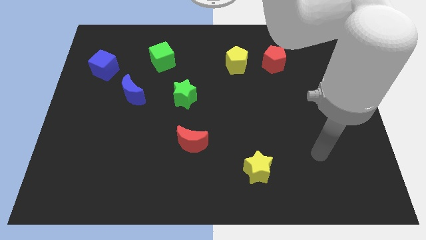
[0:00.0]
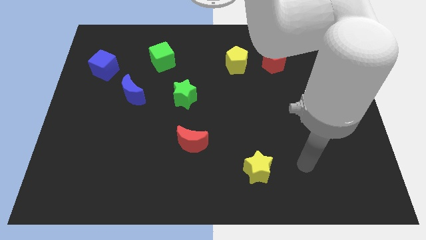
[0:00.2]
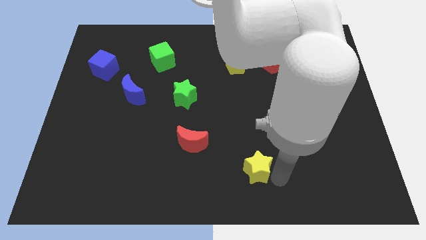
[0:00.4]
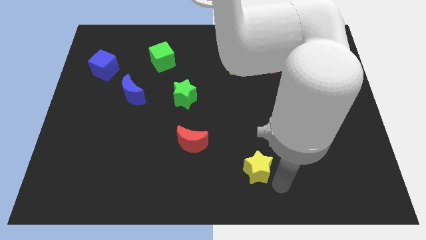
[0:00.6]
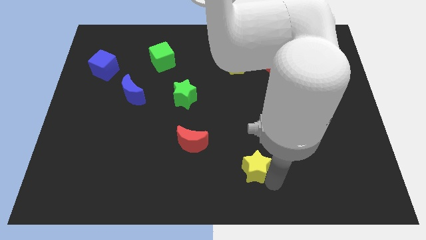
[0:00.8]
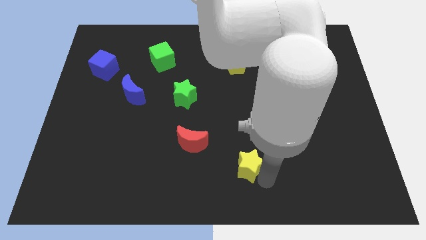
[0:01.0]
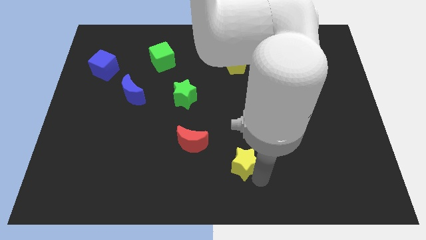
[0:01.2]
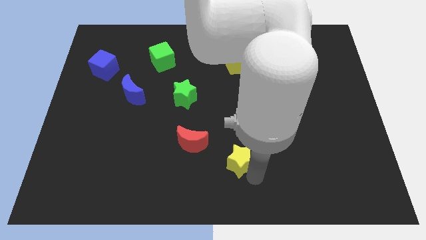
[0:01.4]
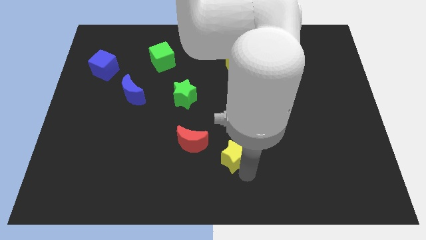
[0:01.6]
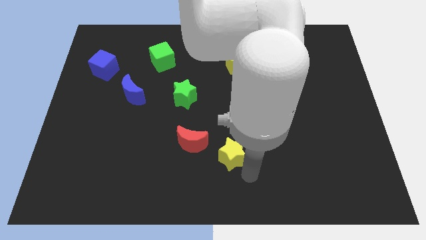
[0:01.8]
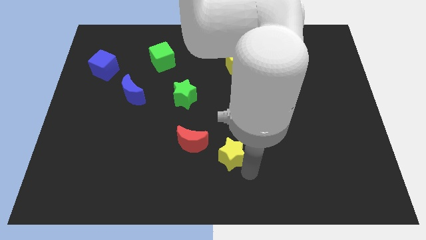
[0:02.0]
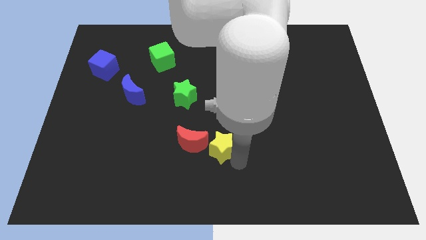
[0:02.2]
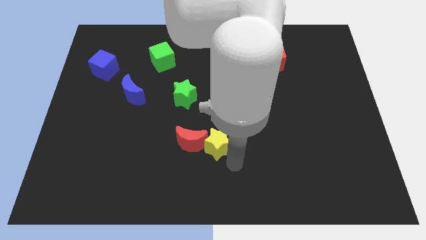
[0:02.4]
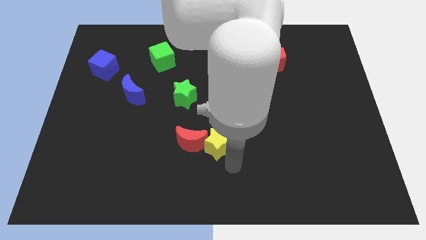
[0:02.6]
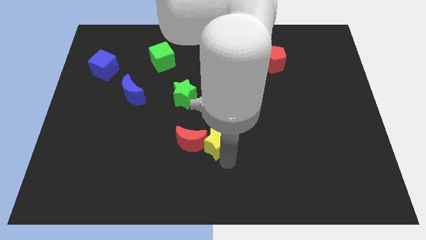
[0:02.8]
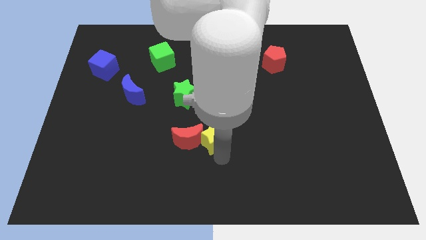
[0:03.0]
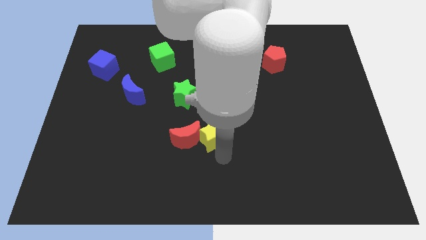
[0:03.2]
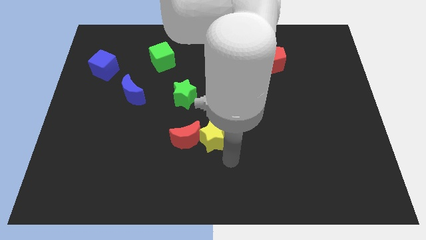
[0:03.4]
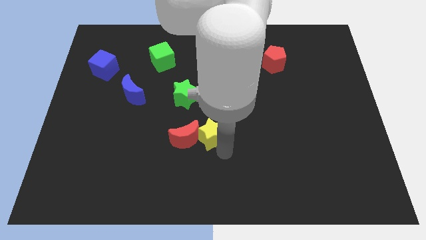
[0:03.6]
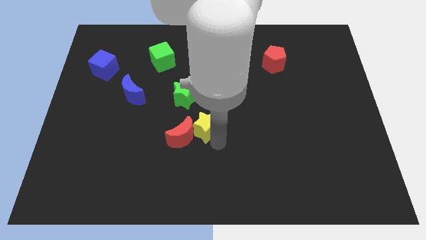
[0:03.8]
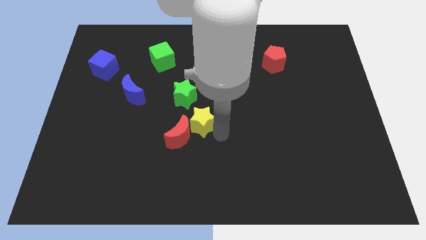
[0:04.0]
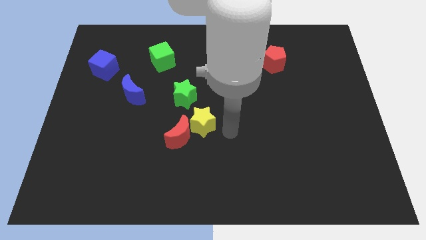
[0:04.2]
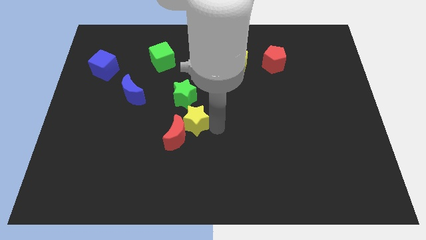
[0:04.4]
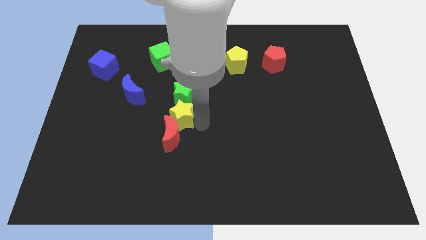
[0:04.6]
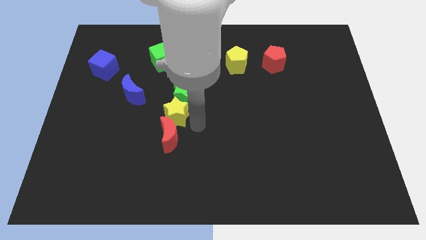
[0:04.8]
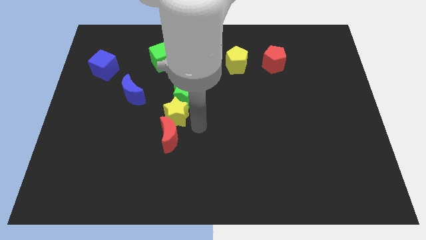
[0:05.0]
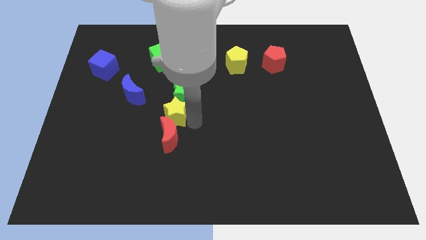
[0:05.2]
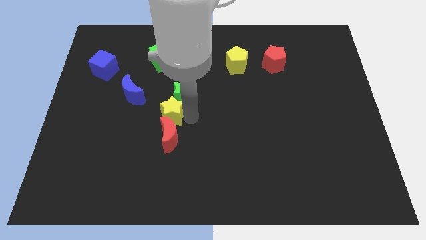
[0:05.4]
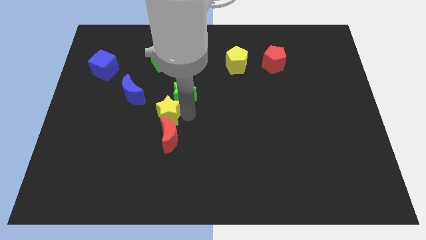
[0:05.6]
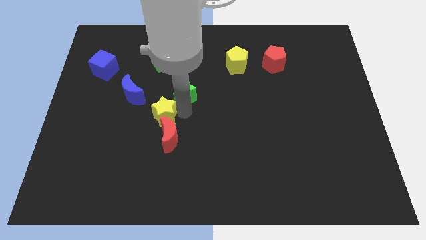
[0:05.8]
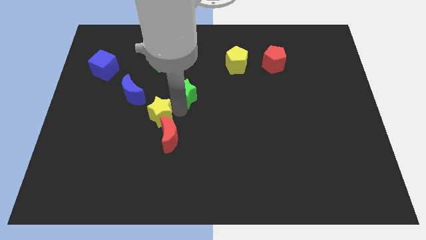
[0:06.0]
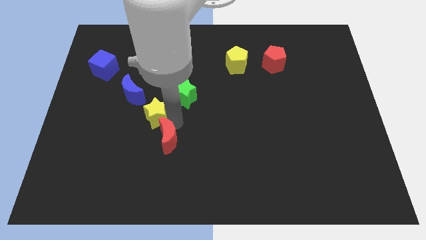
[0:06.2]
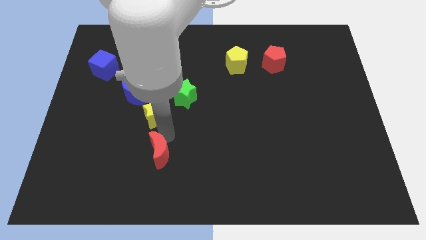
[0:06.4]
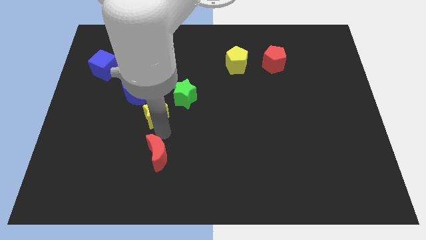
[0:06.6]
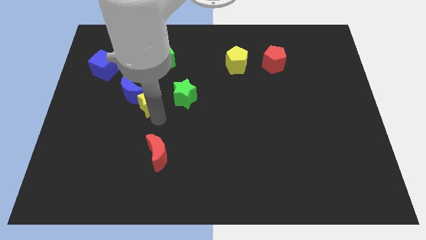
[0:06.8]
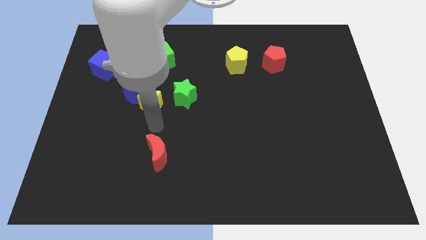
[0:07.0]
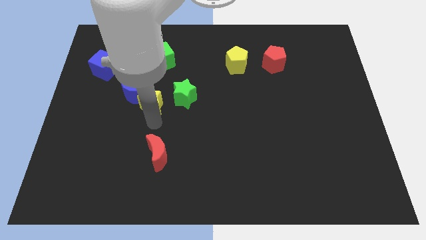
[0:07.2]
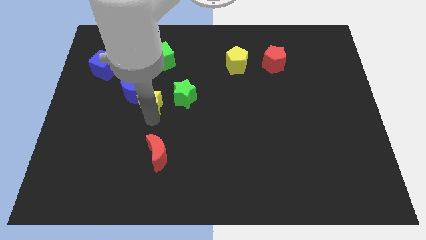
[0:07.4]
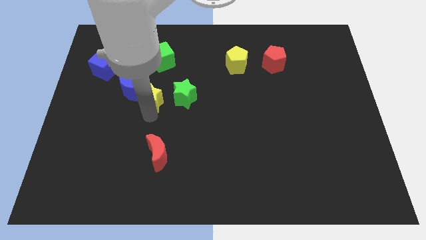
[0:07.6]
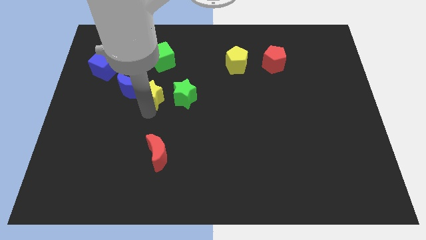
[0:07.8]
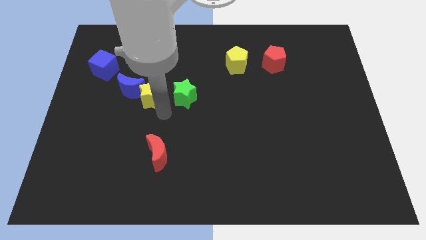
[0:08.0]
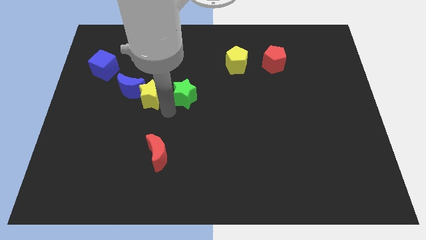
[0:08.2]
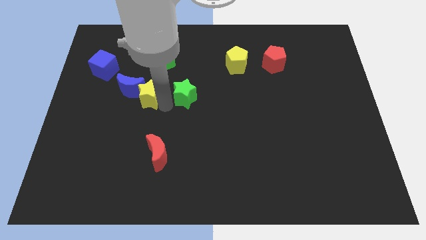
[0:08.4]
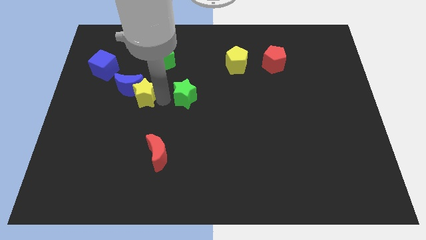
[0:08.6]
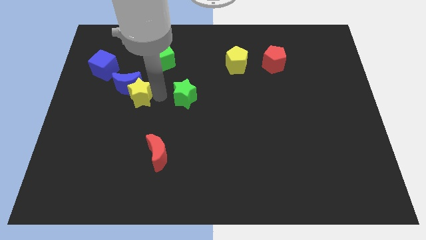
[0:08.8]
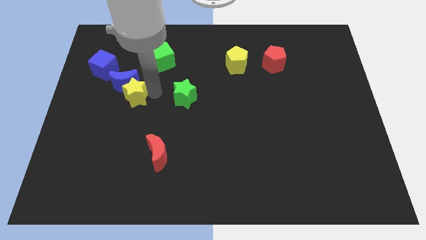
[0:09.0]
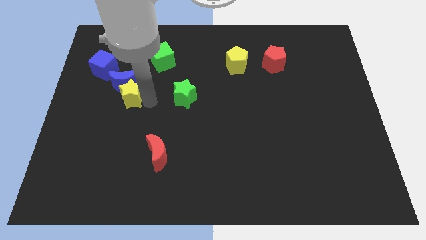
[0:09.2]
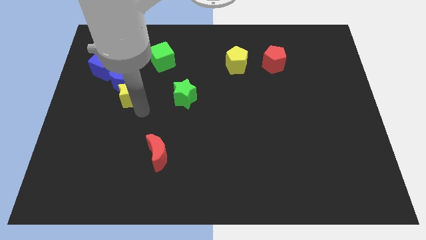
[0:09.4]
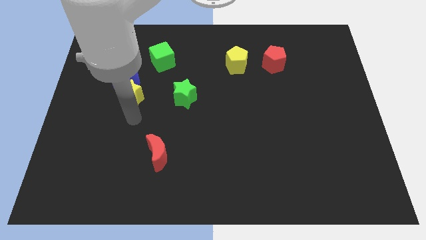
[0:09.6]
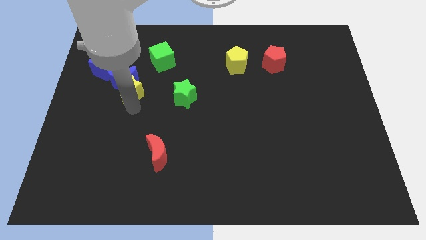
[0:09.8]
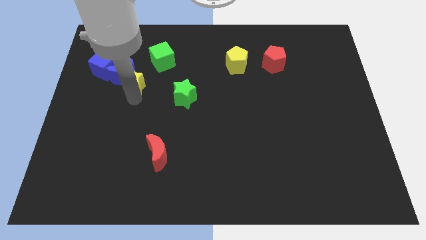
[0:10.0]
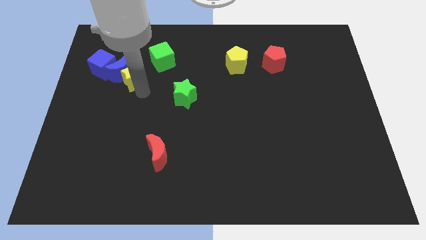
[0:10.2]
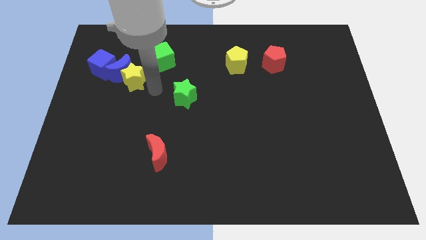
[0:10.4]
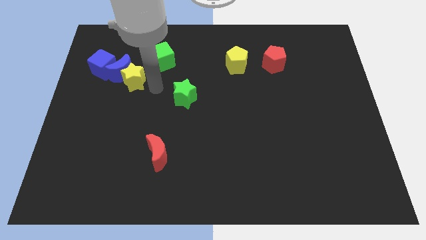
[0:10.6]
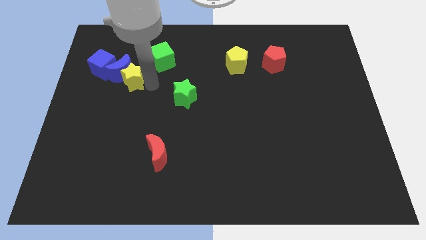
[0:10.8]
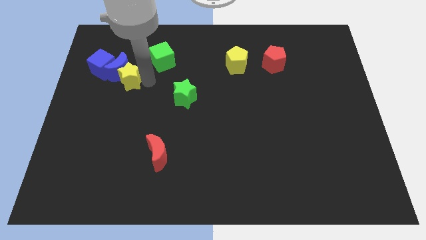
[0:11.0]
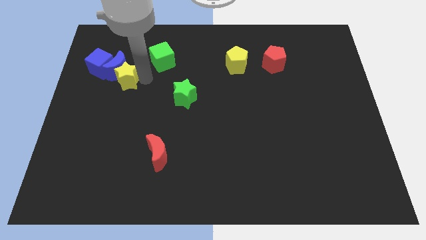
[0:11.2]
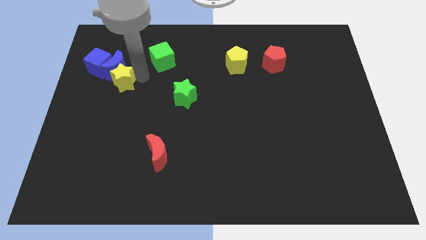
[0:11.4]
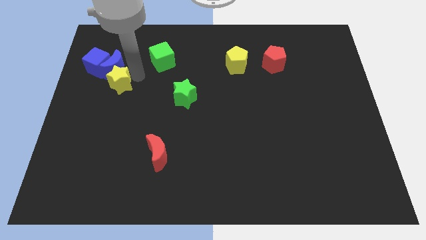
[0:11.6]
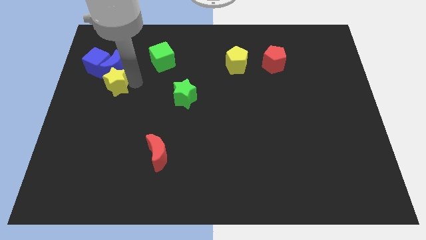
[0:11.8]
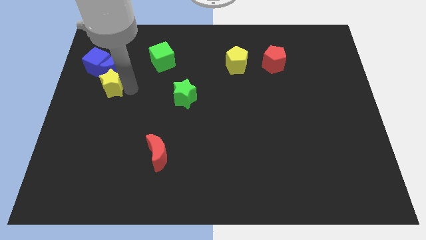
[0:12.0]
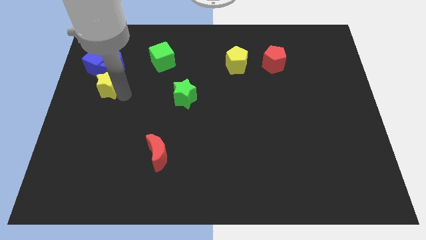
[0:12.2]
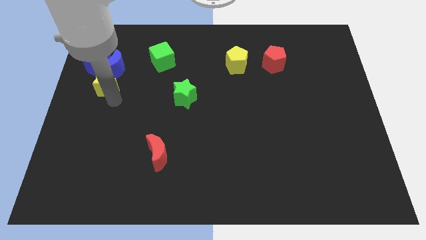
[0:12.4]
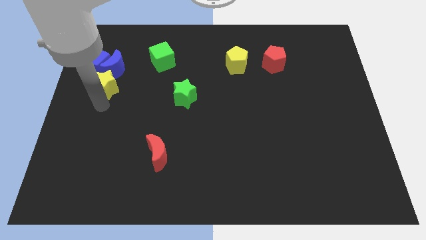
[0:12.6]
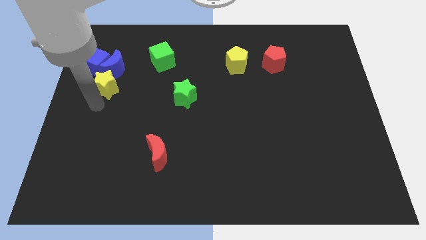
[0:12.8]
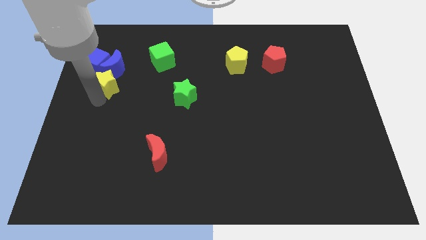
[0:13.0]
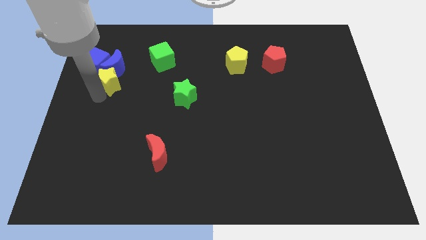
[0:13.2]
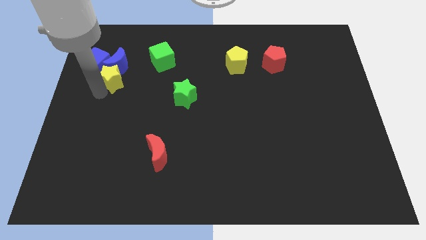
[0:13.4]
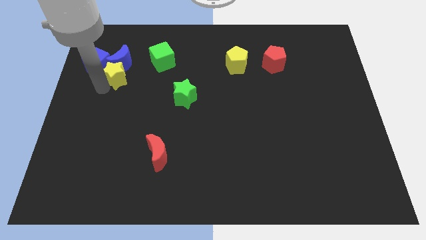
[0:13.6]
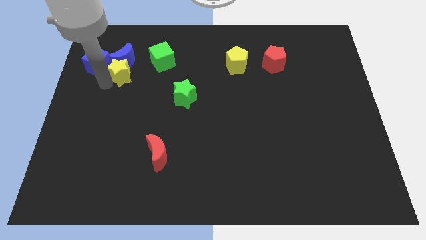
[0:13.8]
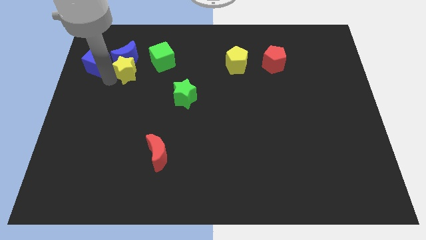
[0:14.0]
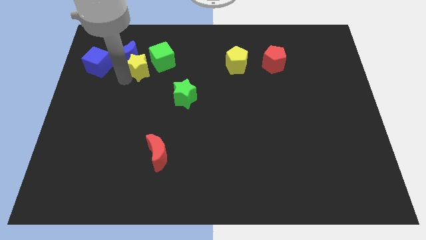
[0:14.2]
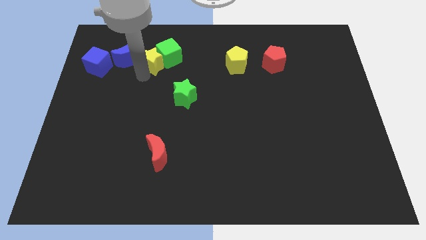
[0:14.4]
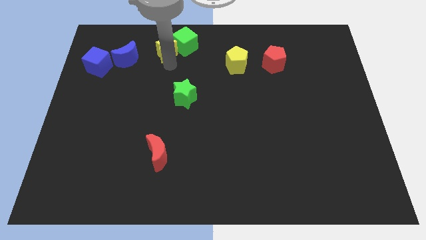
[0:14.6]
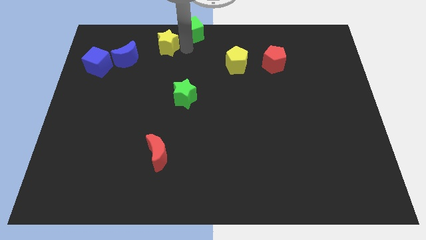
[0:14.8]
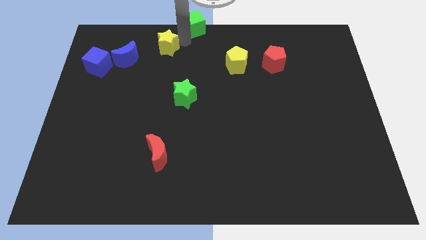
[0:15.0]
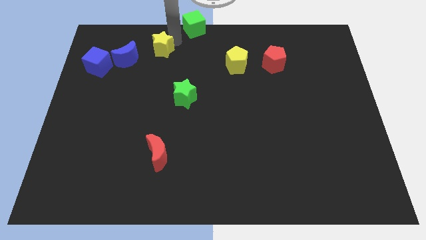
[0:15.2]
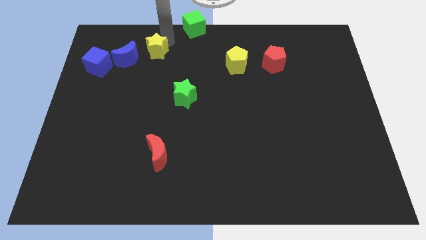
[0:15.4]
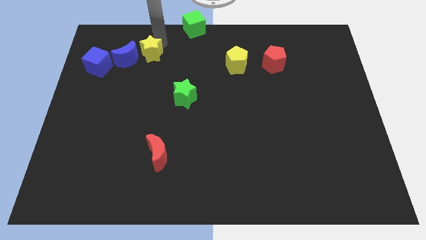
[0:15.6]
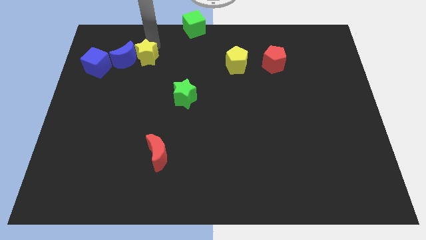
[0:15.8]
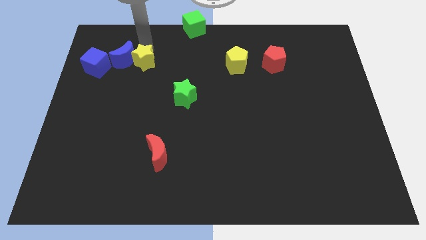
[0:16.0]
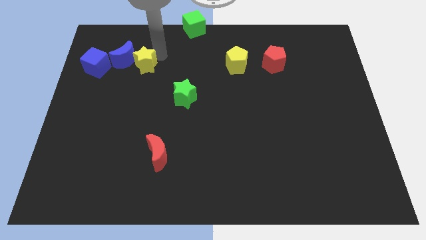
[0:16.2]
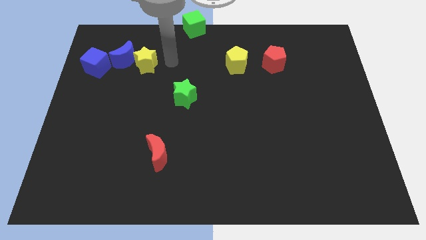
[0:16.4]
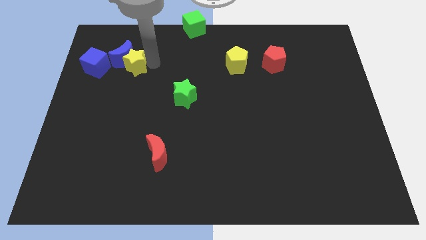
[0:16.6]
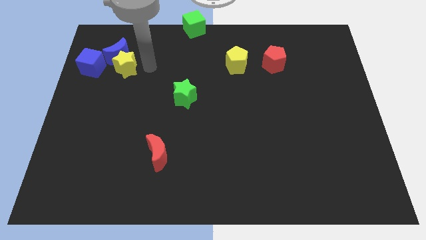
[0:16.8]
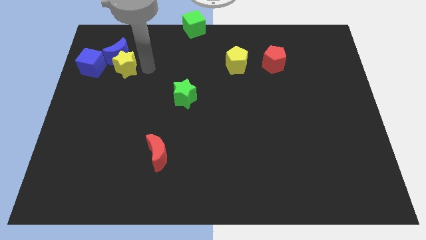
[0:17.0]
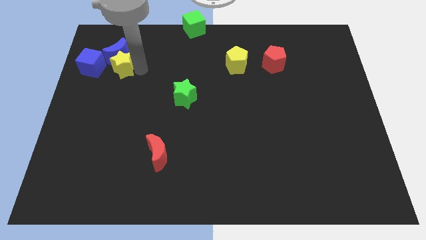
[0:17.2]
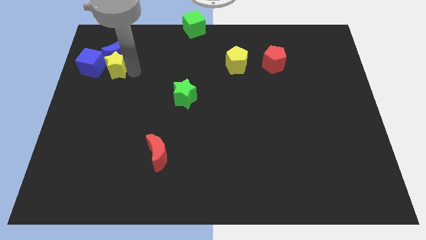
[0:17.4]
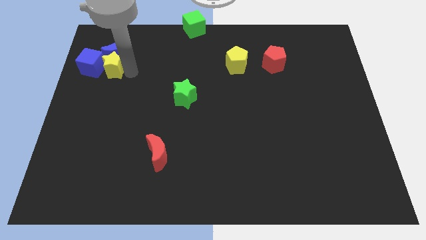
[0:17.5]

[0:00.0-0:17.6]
put the yellow star close to the blue cube
